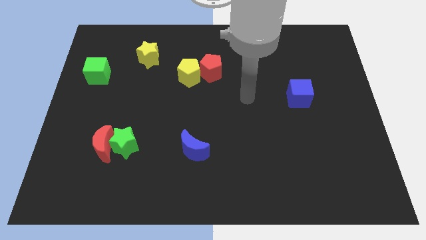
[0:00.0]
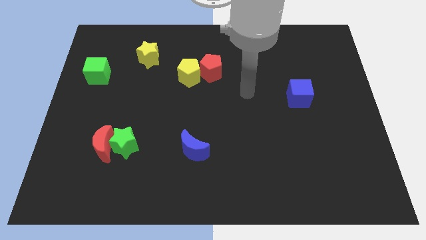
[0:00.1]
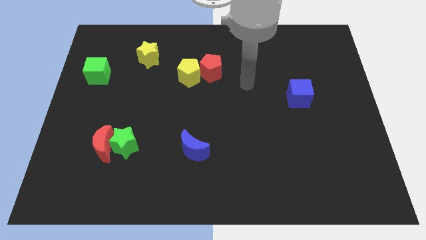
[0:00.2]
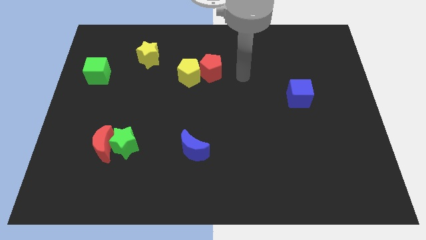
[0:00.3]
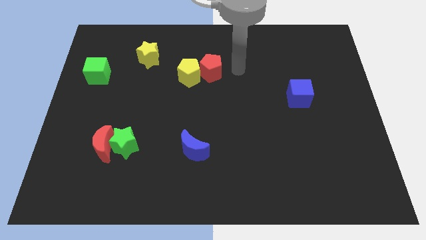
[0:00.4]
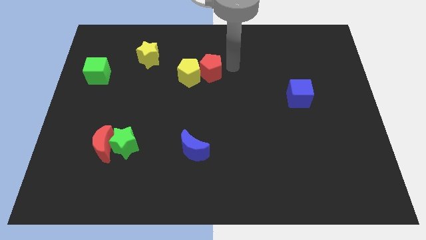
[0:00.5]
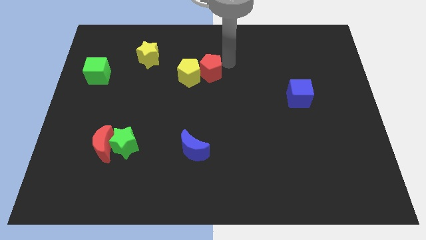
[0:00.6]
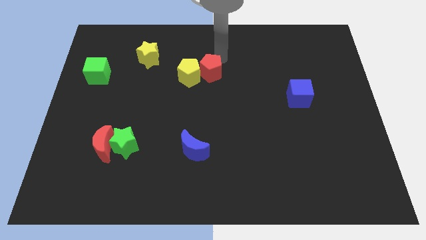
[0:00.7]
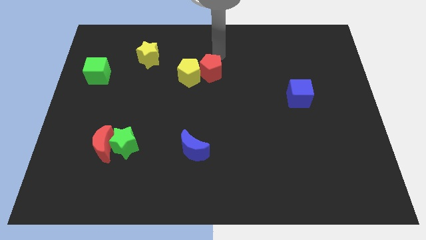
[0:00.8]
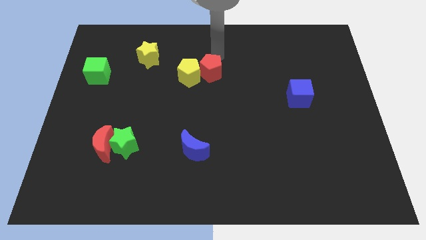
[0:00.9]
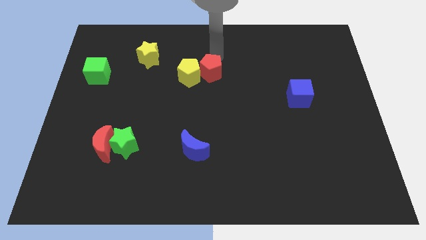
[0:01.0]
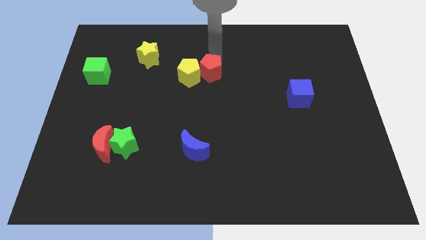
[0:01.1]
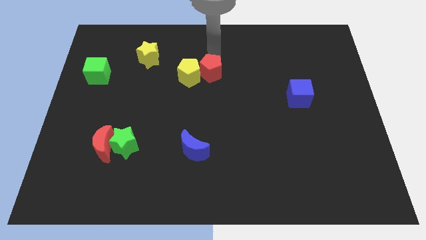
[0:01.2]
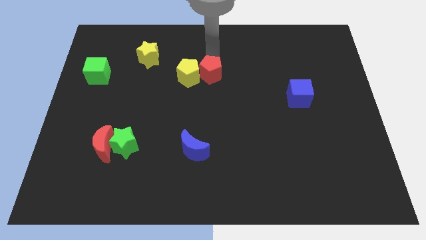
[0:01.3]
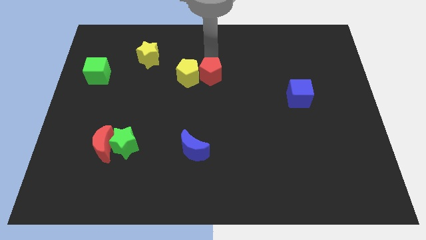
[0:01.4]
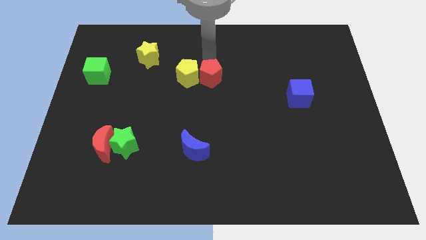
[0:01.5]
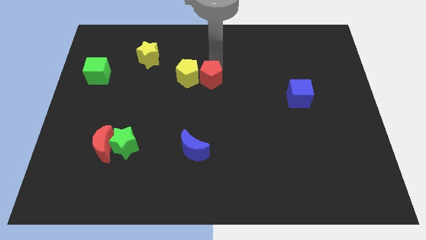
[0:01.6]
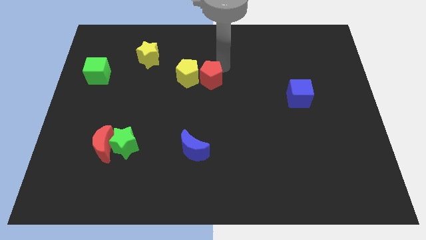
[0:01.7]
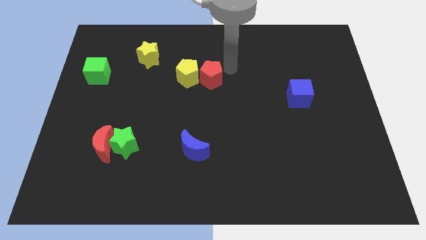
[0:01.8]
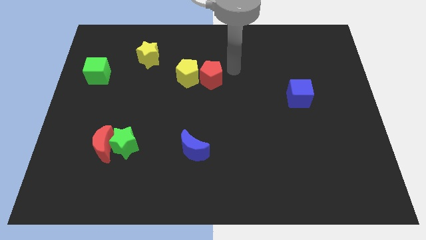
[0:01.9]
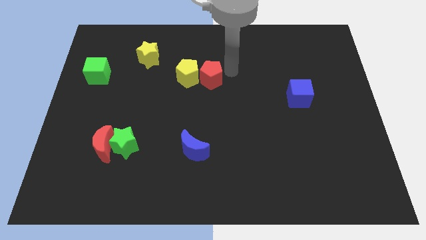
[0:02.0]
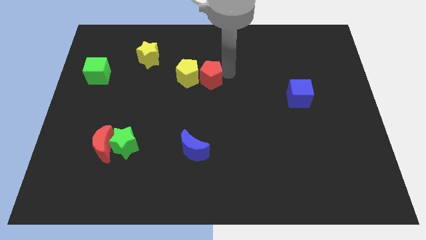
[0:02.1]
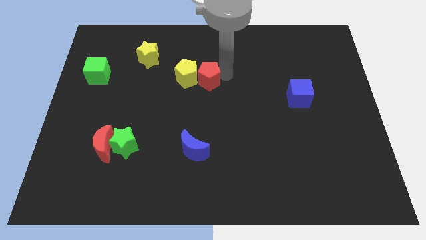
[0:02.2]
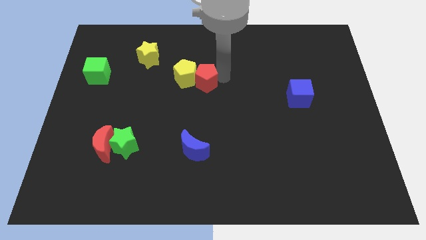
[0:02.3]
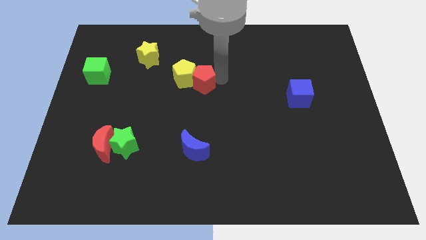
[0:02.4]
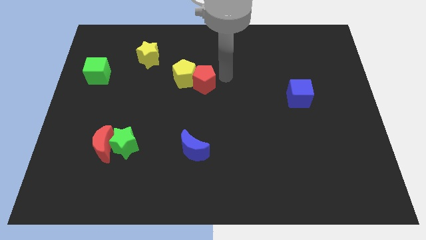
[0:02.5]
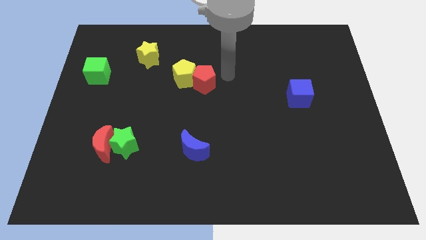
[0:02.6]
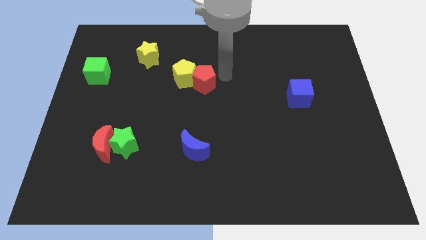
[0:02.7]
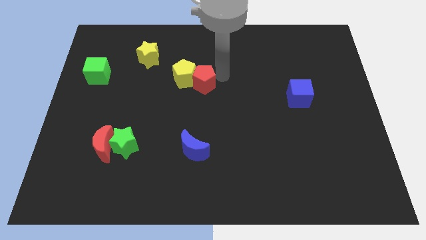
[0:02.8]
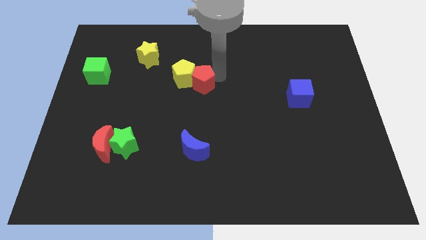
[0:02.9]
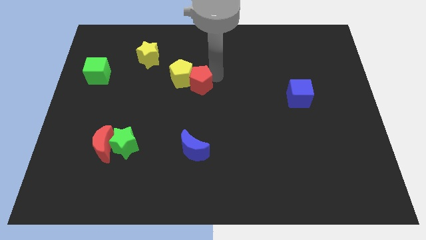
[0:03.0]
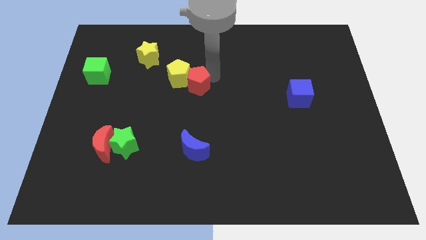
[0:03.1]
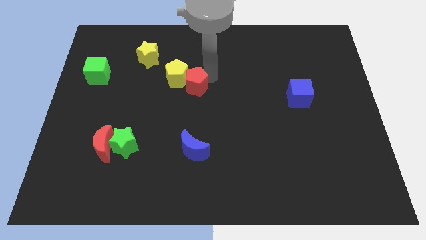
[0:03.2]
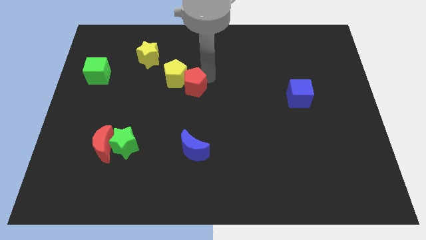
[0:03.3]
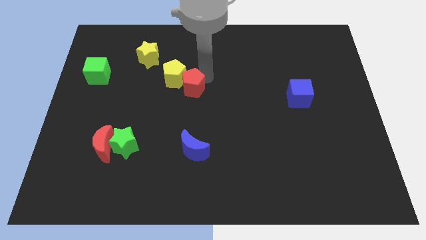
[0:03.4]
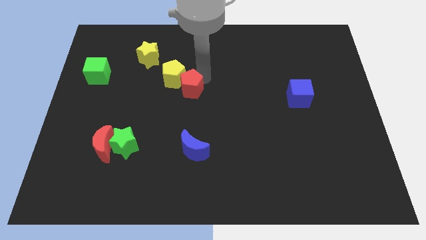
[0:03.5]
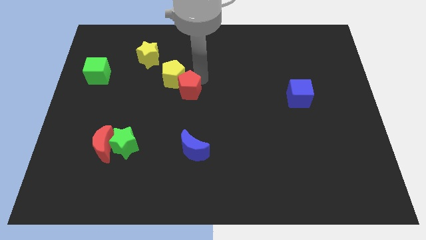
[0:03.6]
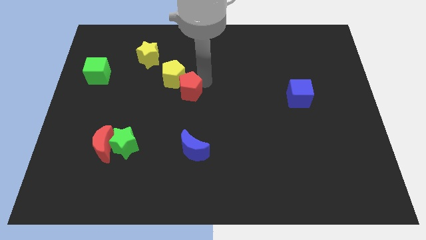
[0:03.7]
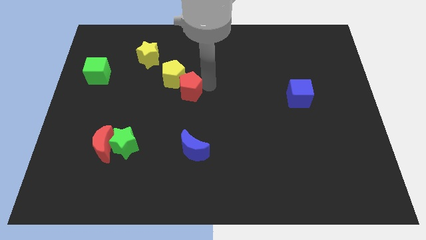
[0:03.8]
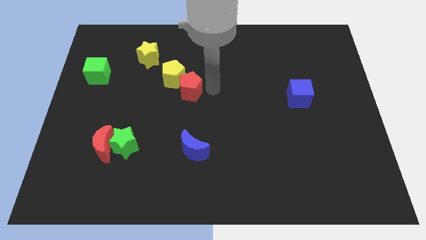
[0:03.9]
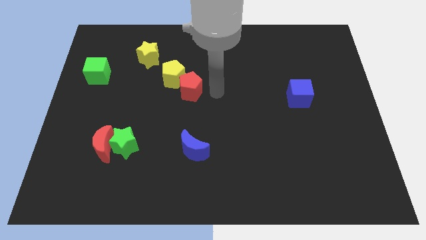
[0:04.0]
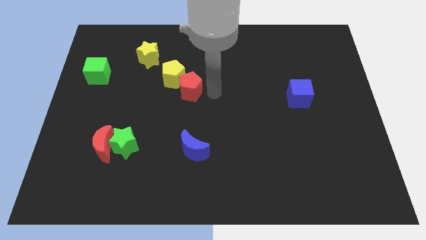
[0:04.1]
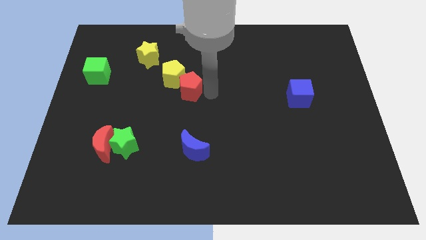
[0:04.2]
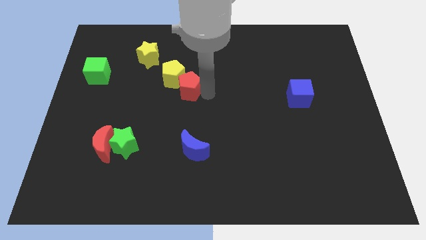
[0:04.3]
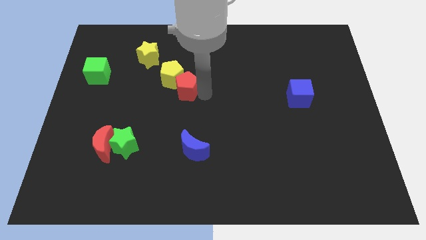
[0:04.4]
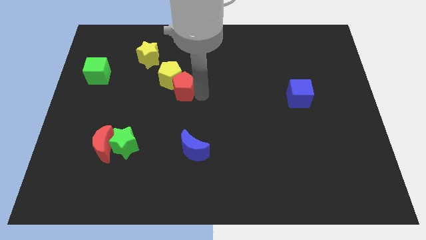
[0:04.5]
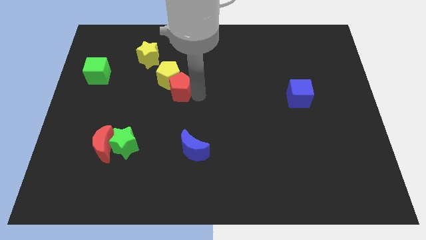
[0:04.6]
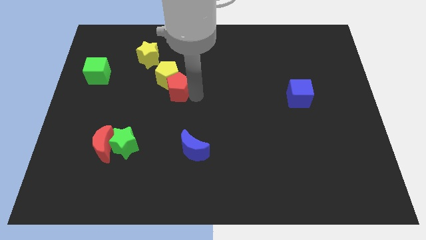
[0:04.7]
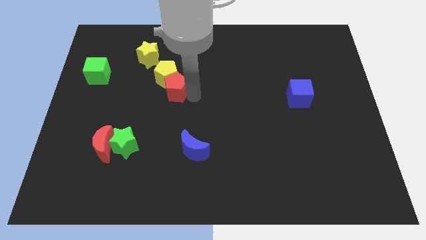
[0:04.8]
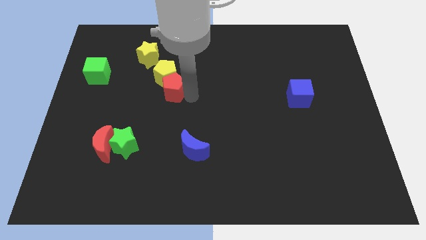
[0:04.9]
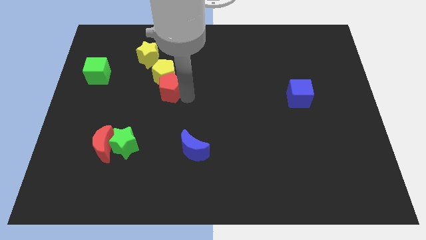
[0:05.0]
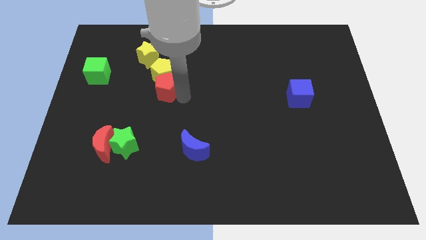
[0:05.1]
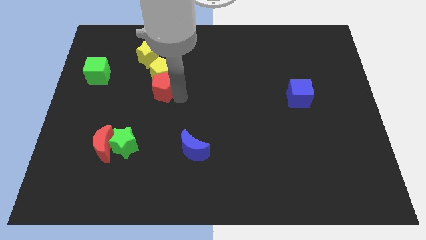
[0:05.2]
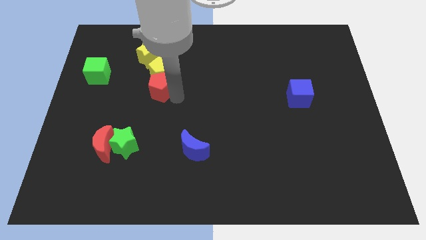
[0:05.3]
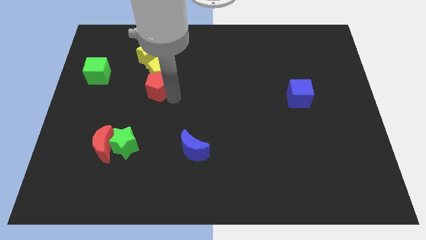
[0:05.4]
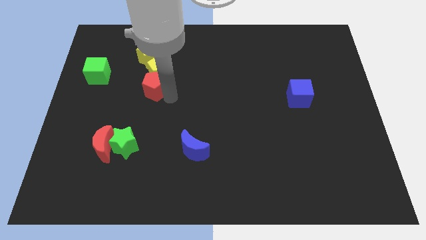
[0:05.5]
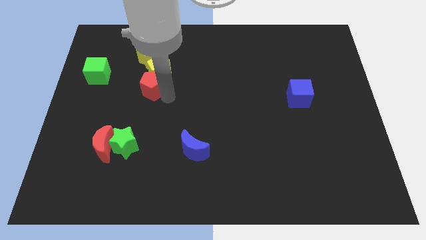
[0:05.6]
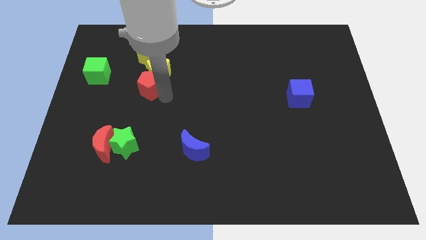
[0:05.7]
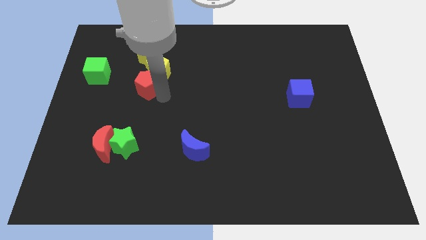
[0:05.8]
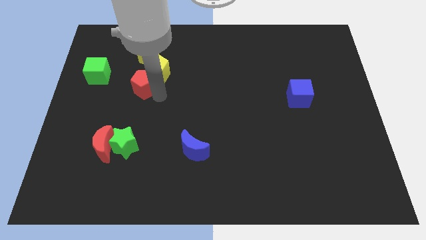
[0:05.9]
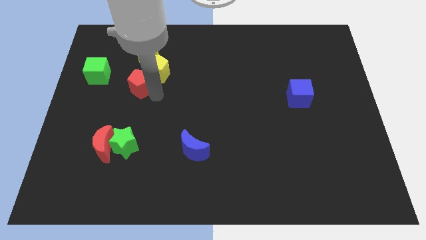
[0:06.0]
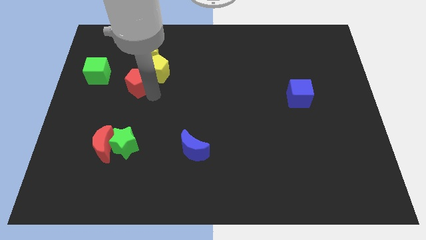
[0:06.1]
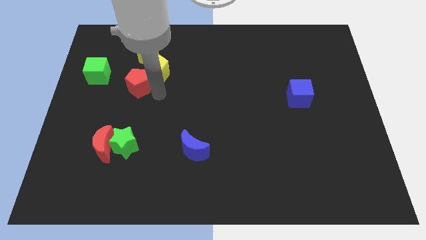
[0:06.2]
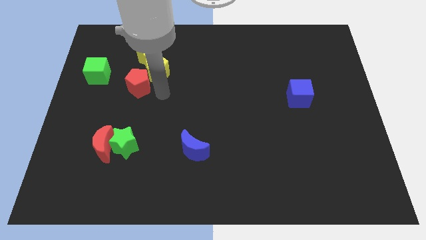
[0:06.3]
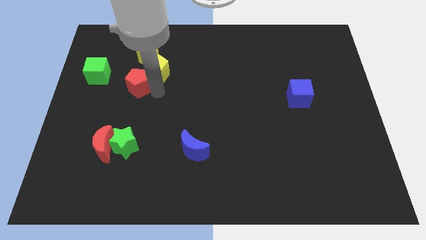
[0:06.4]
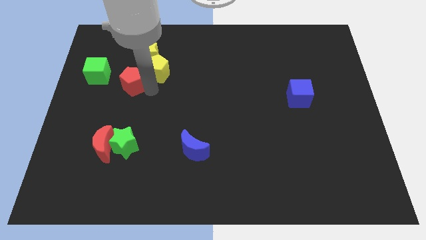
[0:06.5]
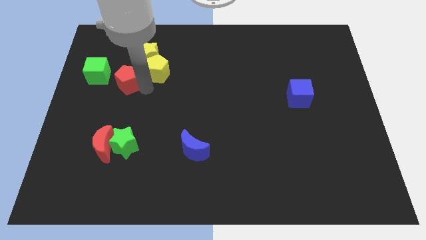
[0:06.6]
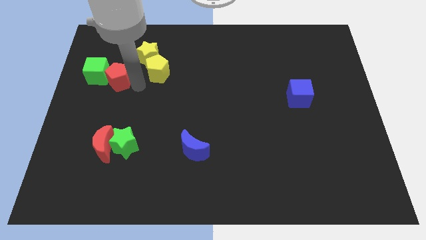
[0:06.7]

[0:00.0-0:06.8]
put the red pentagon to the green cube
